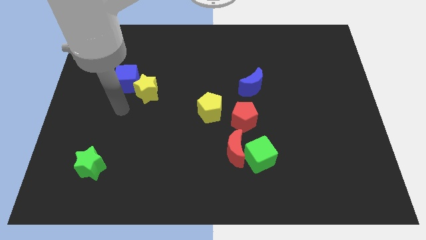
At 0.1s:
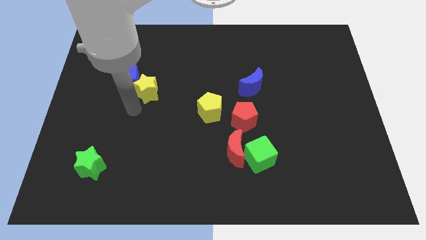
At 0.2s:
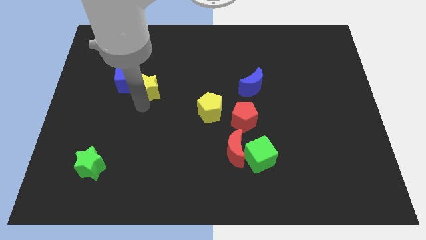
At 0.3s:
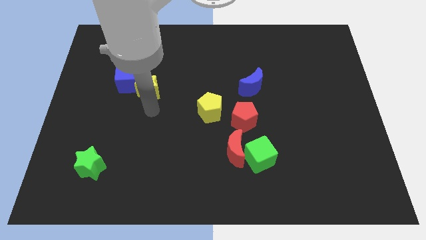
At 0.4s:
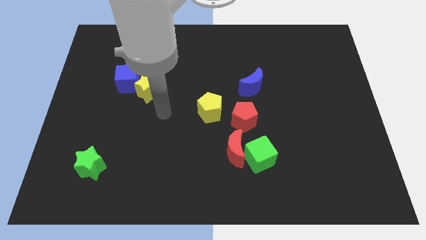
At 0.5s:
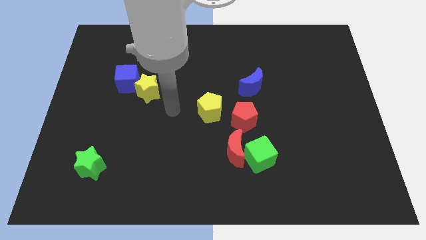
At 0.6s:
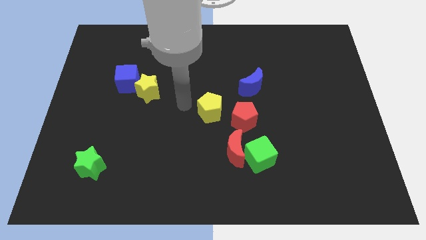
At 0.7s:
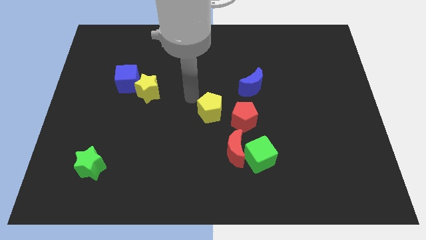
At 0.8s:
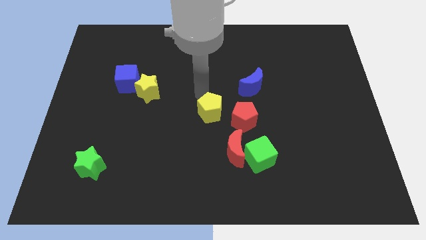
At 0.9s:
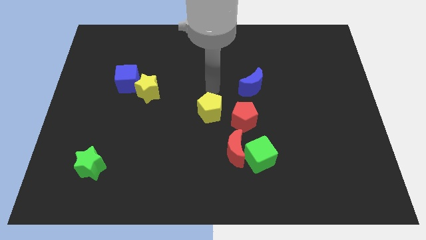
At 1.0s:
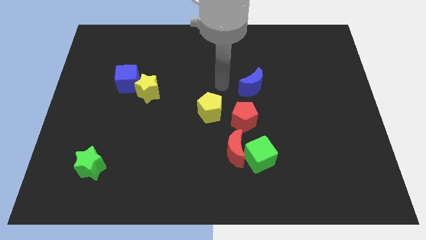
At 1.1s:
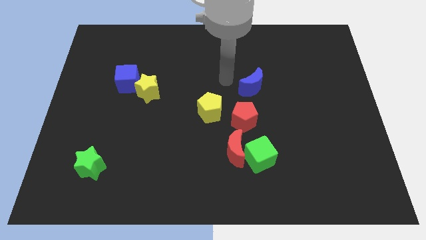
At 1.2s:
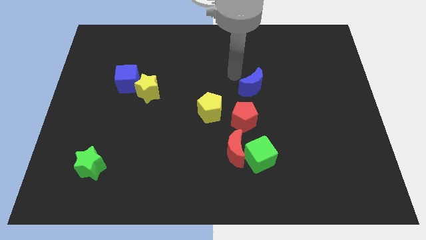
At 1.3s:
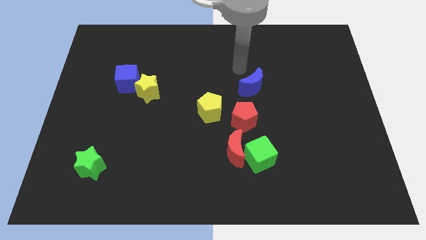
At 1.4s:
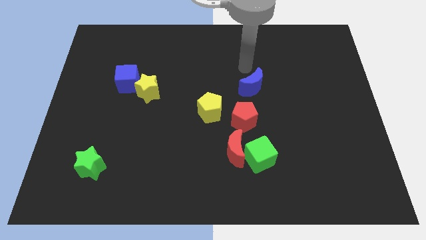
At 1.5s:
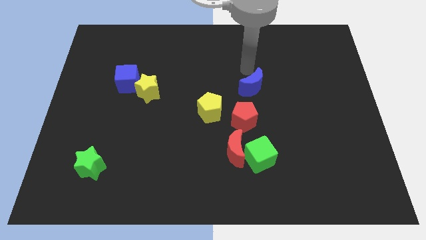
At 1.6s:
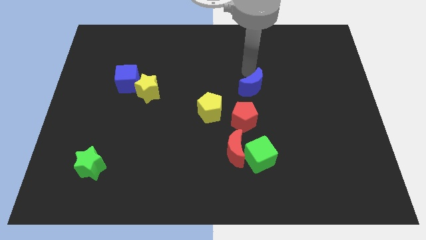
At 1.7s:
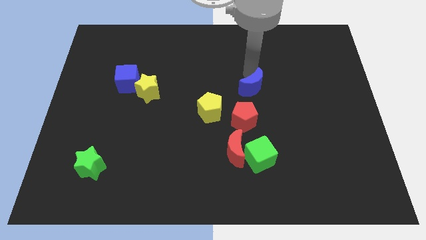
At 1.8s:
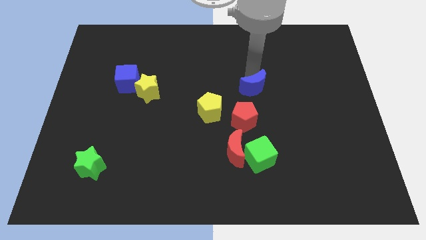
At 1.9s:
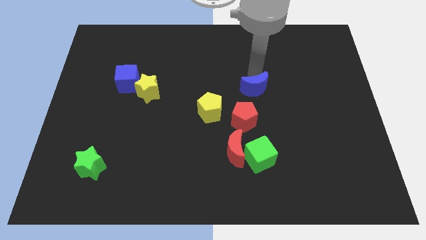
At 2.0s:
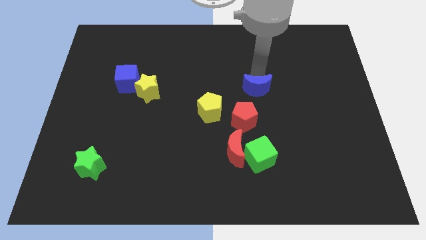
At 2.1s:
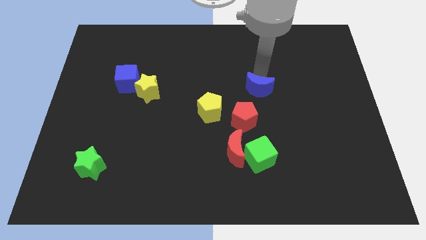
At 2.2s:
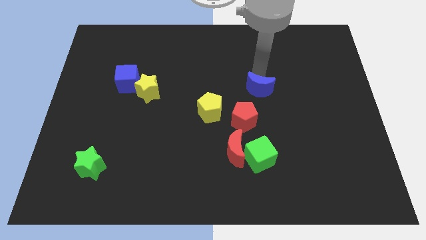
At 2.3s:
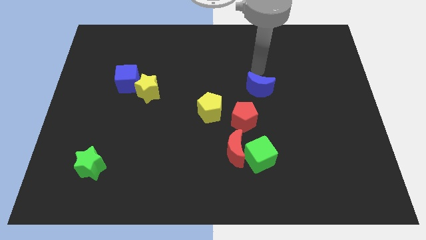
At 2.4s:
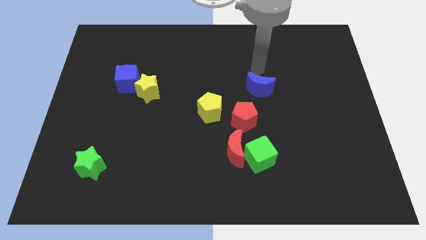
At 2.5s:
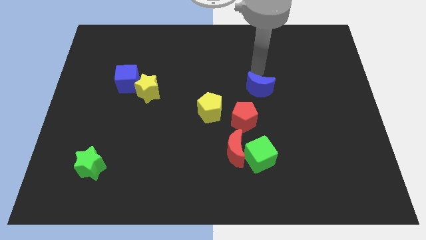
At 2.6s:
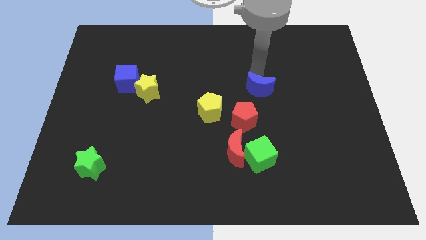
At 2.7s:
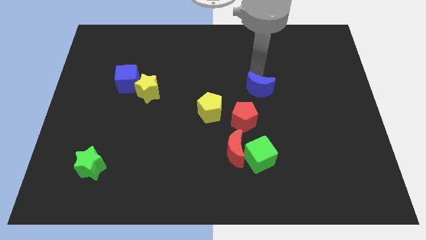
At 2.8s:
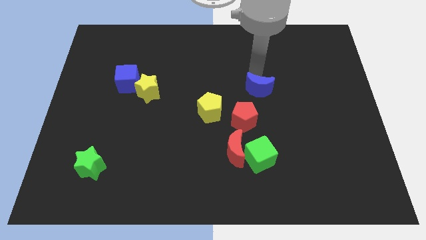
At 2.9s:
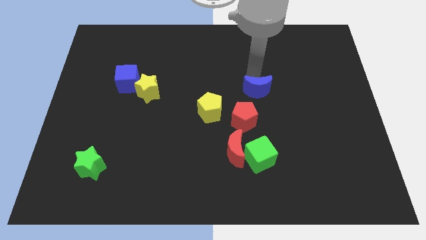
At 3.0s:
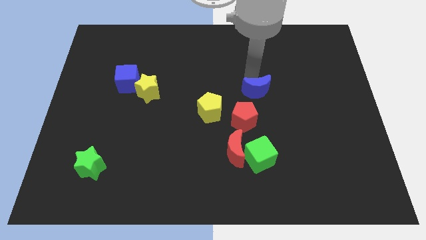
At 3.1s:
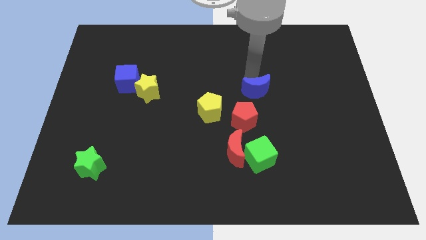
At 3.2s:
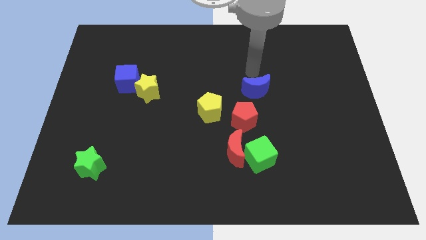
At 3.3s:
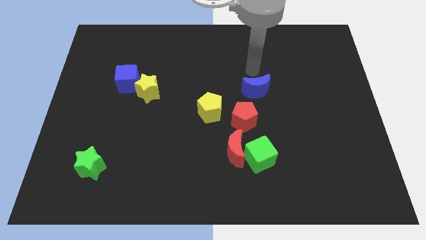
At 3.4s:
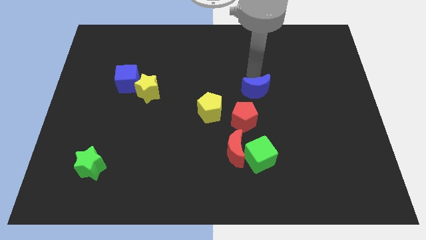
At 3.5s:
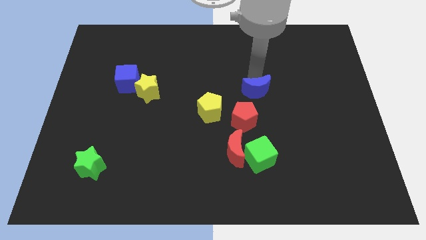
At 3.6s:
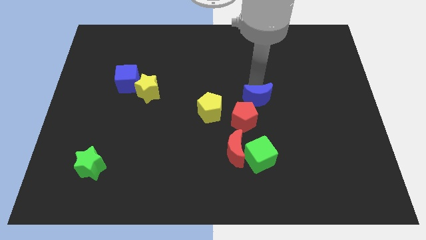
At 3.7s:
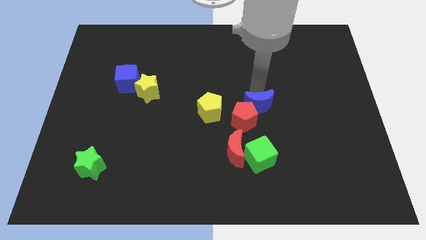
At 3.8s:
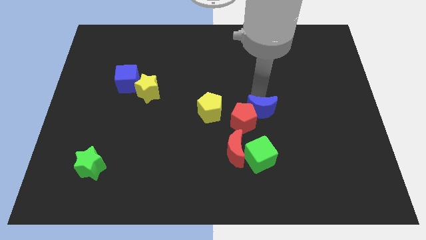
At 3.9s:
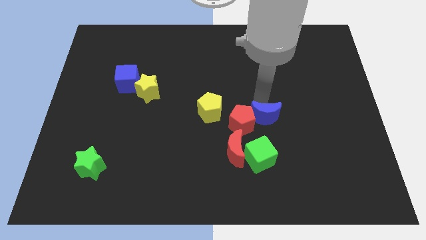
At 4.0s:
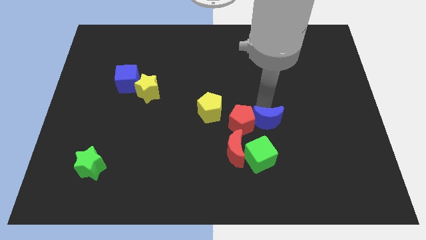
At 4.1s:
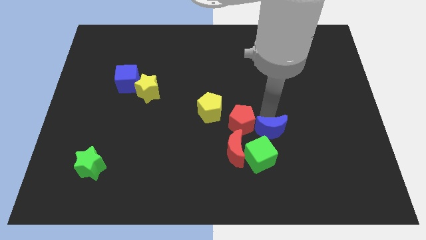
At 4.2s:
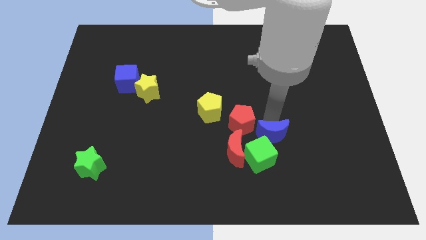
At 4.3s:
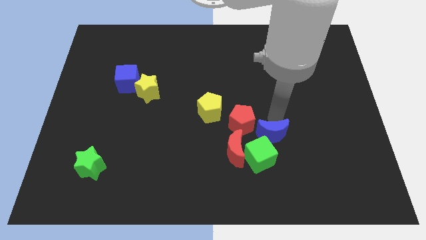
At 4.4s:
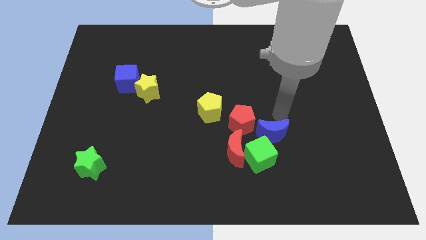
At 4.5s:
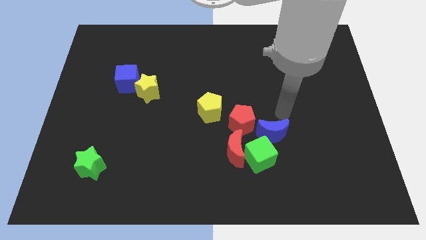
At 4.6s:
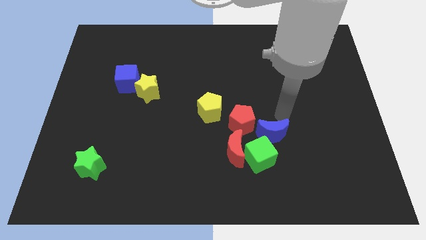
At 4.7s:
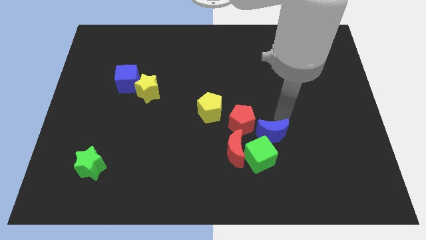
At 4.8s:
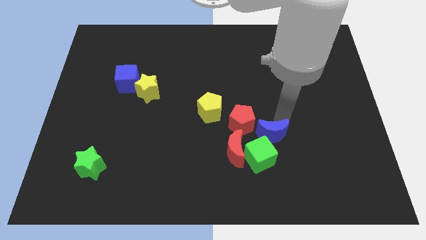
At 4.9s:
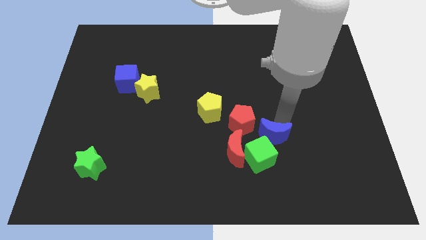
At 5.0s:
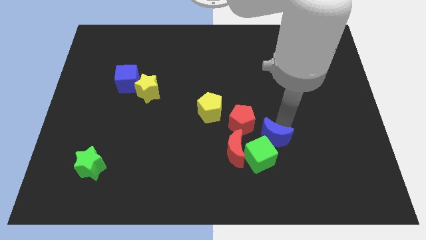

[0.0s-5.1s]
push the blue moon next to the green cube

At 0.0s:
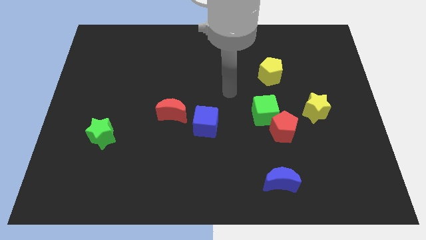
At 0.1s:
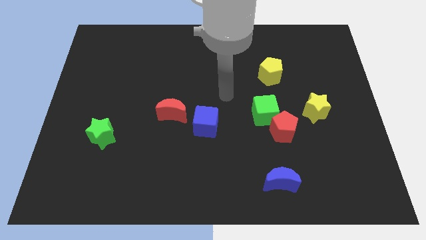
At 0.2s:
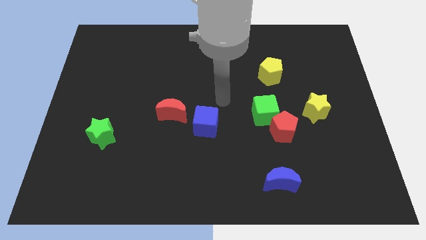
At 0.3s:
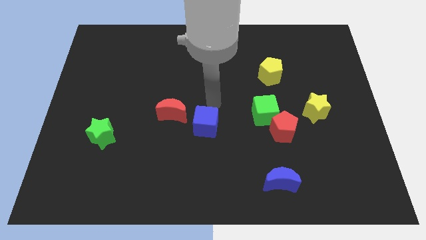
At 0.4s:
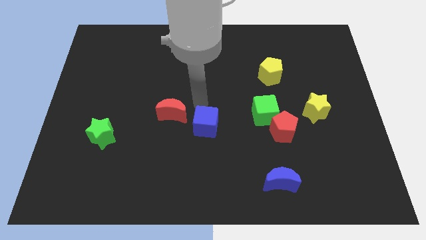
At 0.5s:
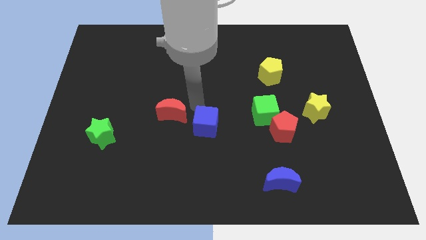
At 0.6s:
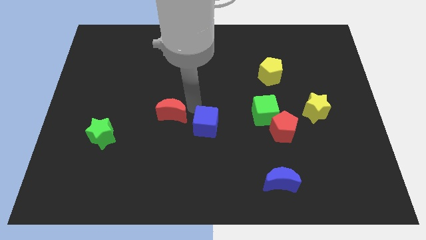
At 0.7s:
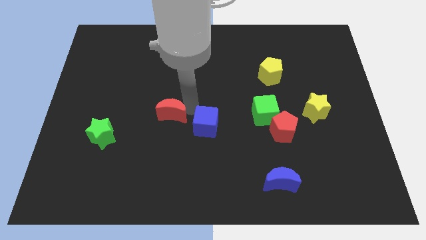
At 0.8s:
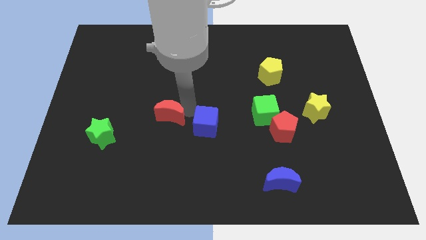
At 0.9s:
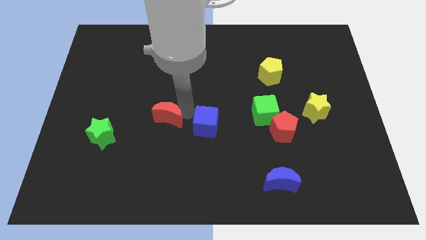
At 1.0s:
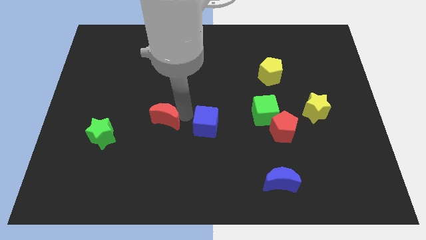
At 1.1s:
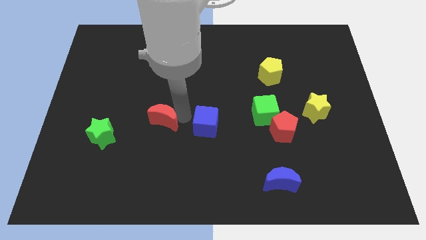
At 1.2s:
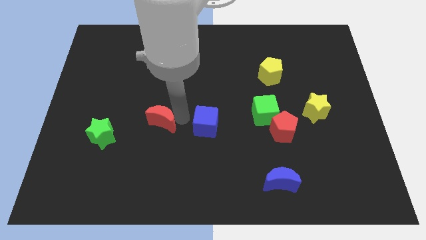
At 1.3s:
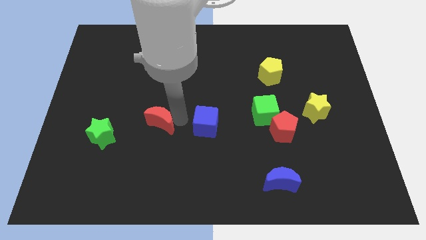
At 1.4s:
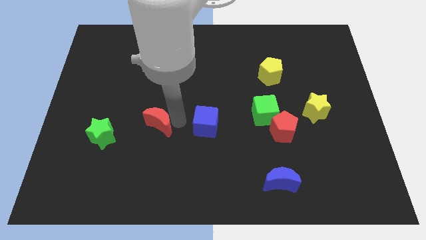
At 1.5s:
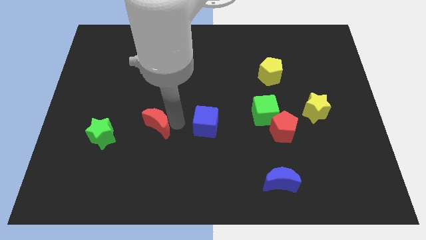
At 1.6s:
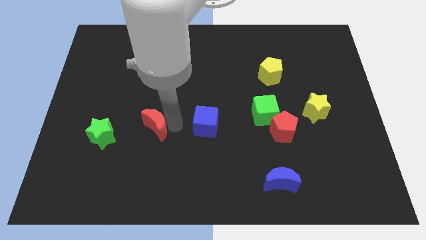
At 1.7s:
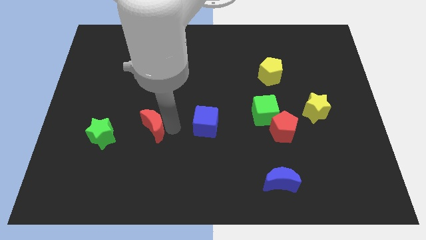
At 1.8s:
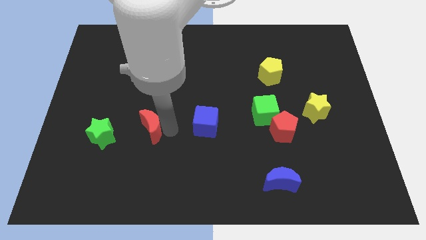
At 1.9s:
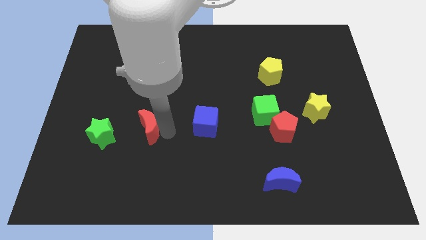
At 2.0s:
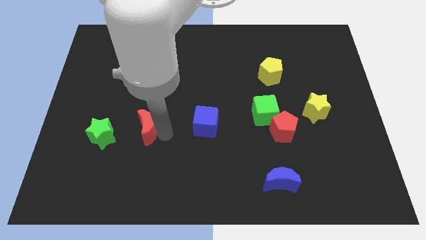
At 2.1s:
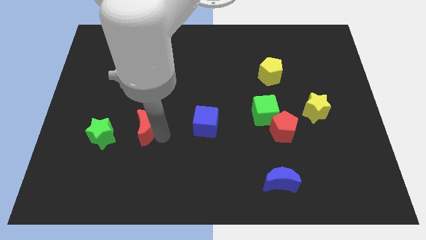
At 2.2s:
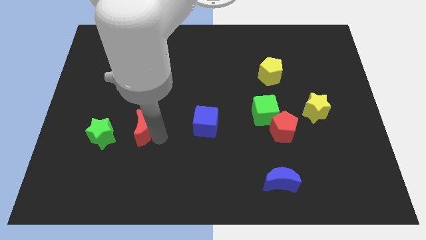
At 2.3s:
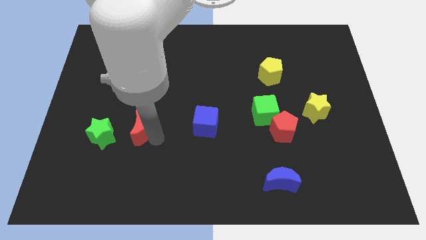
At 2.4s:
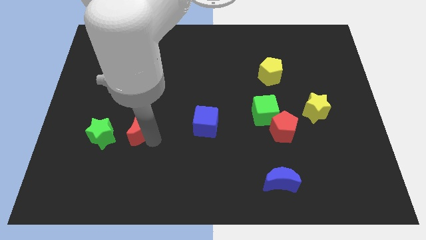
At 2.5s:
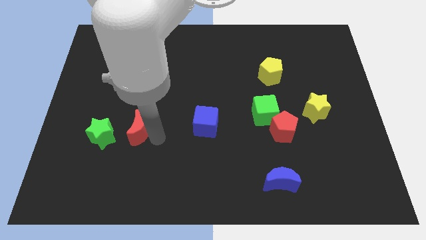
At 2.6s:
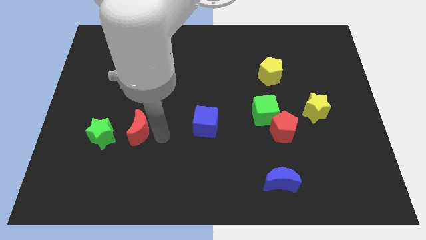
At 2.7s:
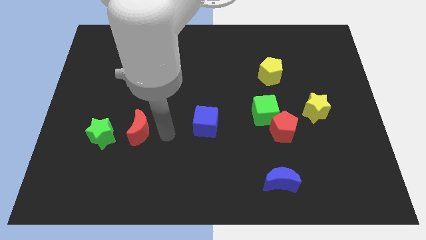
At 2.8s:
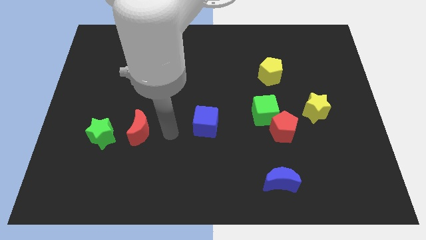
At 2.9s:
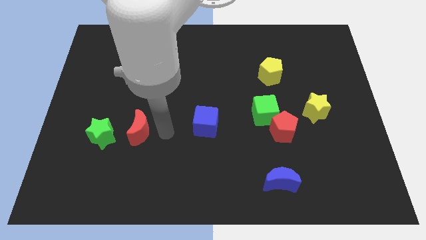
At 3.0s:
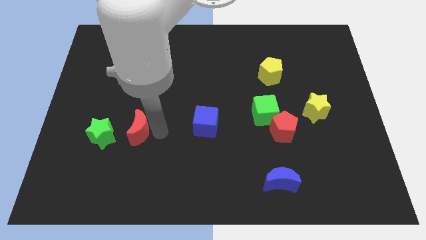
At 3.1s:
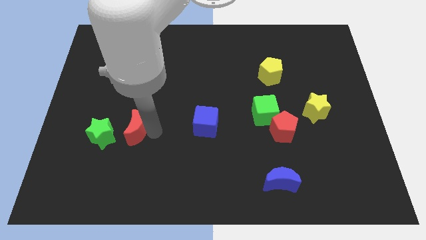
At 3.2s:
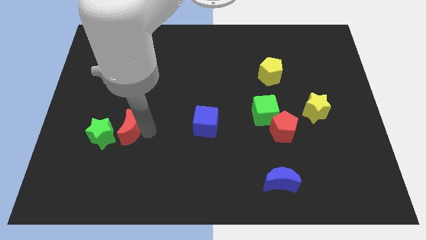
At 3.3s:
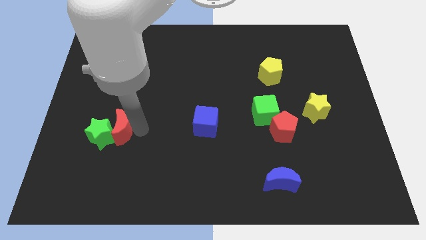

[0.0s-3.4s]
slide the red moon to the green star
